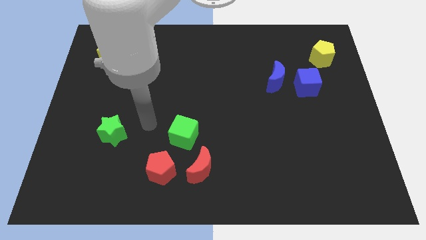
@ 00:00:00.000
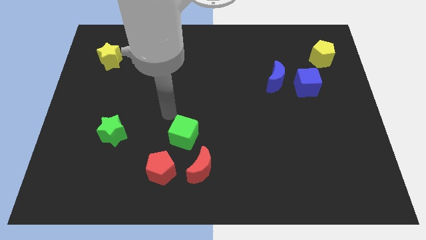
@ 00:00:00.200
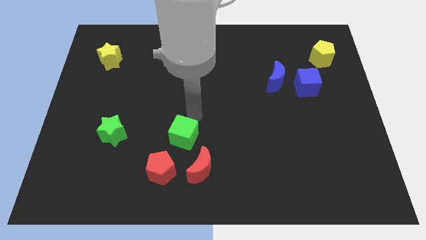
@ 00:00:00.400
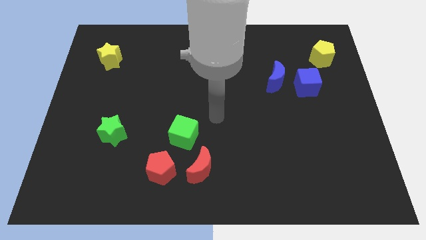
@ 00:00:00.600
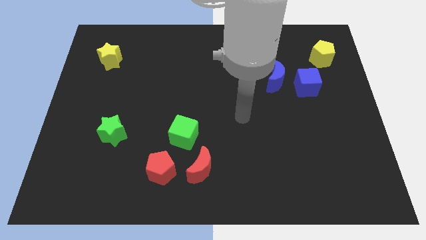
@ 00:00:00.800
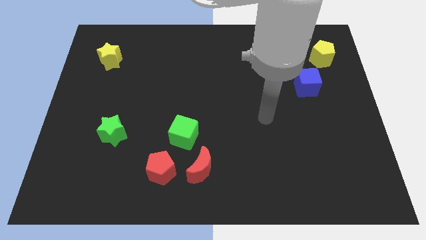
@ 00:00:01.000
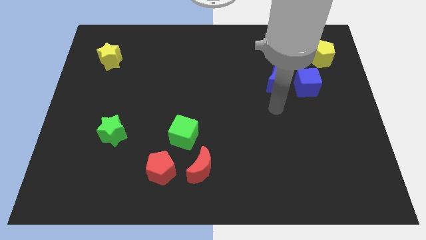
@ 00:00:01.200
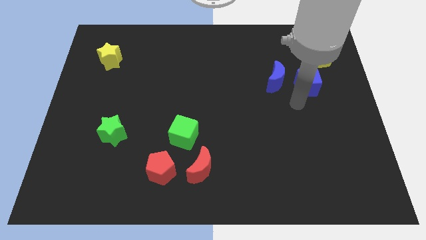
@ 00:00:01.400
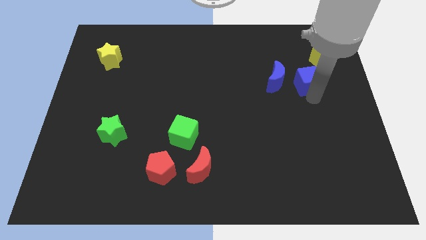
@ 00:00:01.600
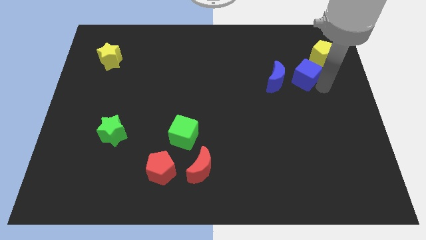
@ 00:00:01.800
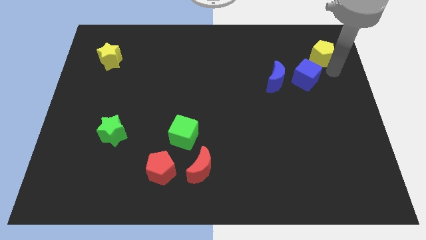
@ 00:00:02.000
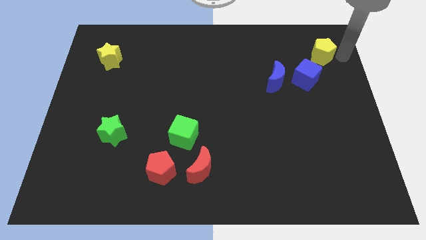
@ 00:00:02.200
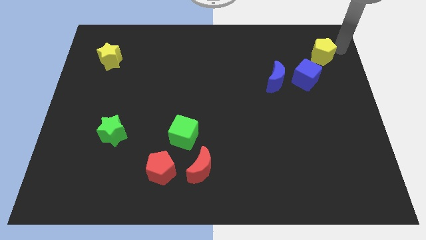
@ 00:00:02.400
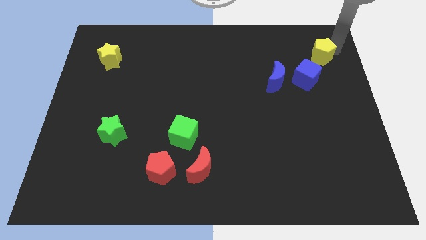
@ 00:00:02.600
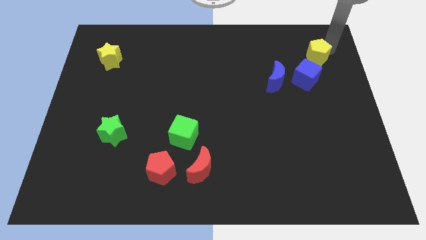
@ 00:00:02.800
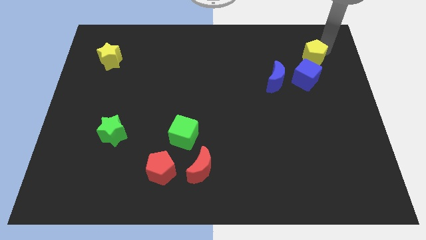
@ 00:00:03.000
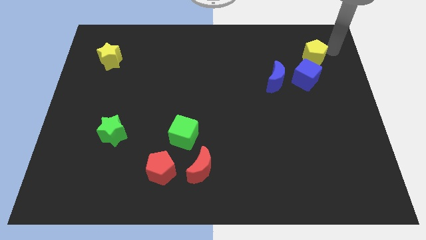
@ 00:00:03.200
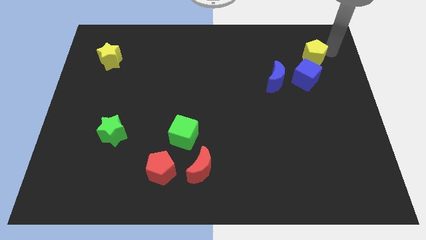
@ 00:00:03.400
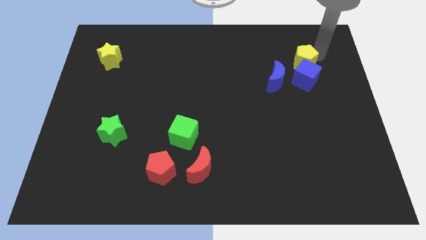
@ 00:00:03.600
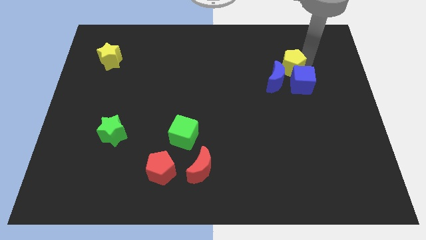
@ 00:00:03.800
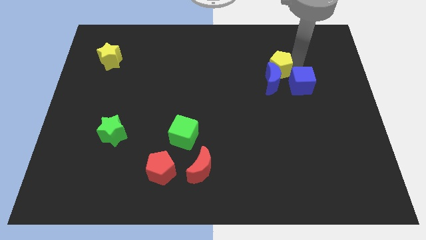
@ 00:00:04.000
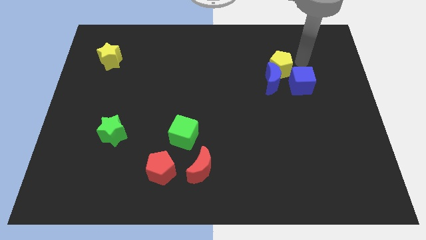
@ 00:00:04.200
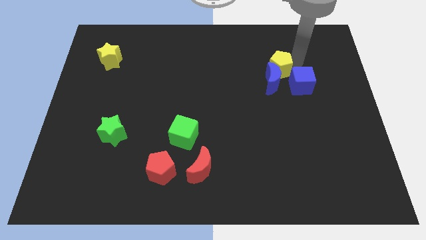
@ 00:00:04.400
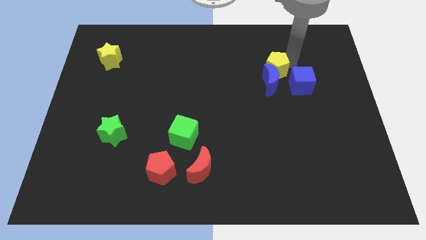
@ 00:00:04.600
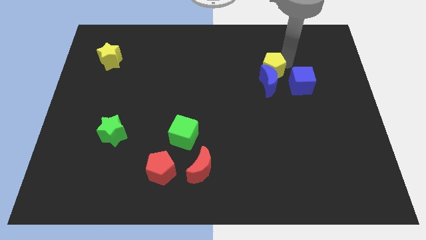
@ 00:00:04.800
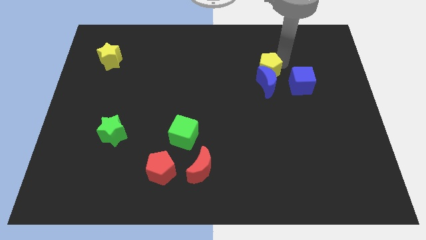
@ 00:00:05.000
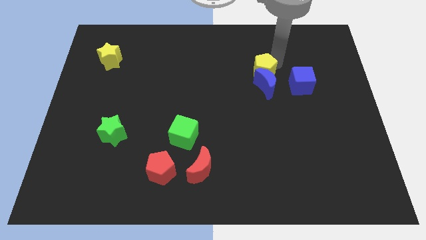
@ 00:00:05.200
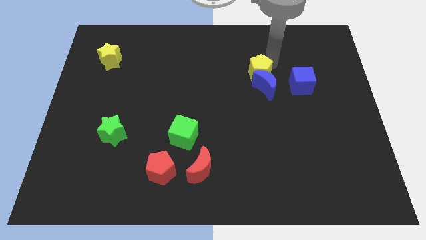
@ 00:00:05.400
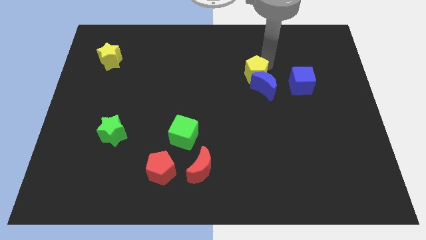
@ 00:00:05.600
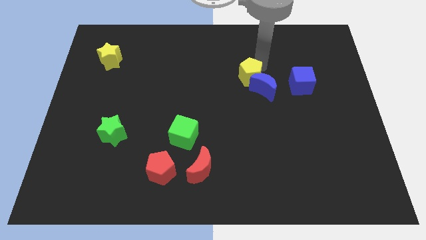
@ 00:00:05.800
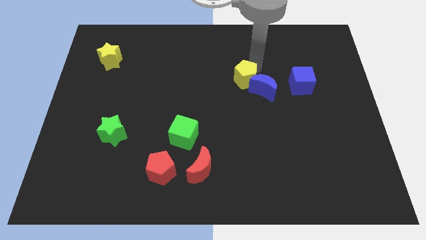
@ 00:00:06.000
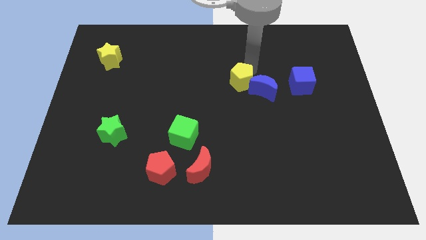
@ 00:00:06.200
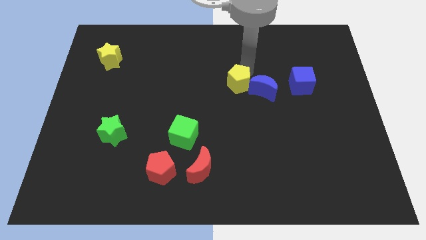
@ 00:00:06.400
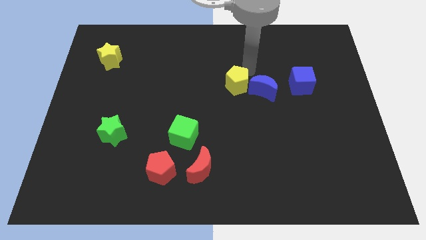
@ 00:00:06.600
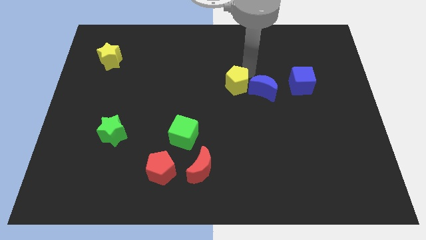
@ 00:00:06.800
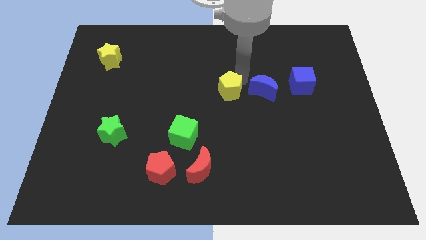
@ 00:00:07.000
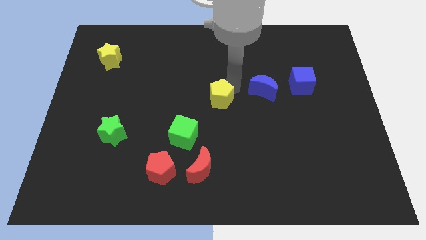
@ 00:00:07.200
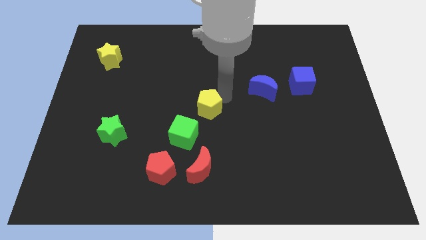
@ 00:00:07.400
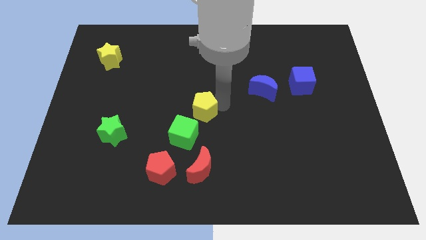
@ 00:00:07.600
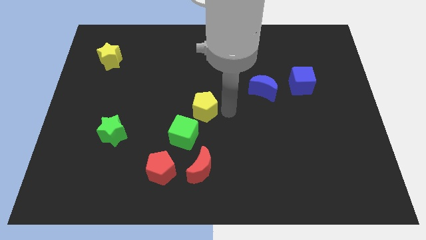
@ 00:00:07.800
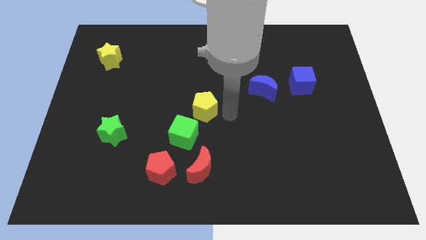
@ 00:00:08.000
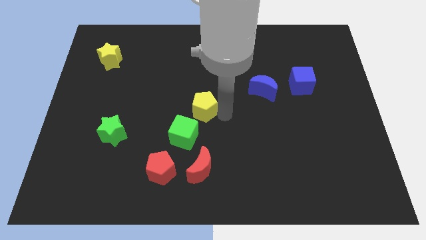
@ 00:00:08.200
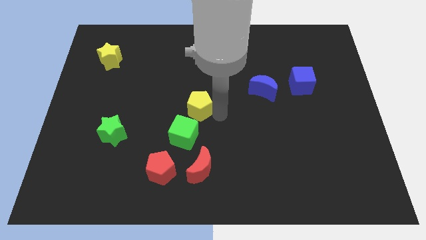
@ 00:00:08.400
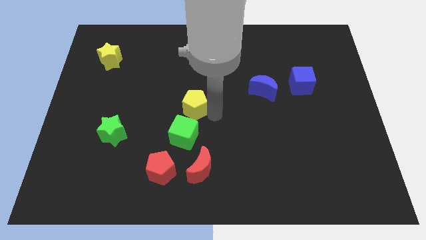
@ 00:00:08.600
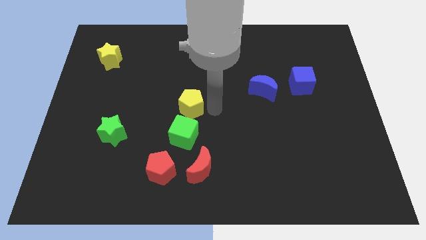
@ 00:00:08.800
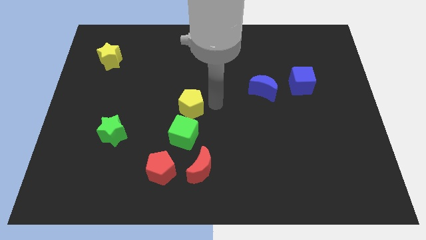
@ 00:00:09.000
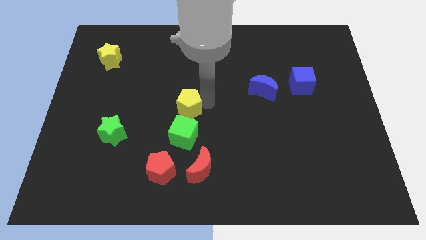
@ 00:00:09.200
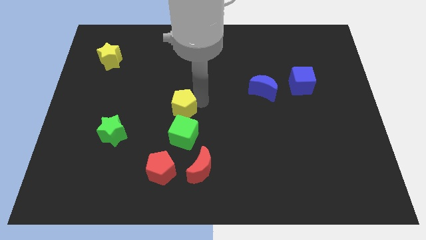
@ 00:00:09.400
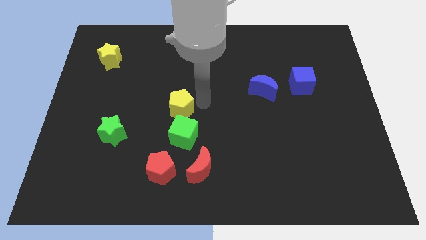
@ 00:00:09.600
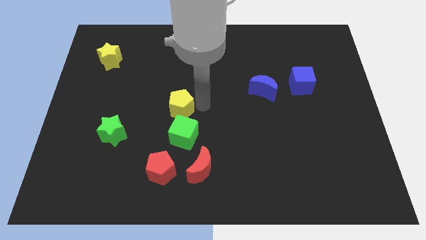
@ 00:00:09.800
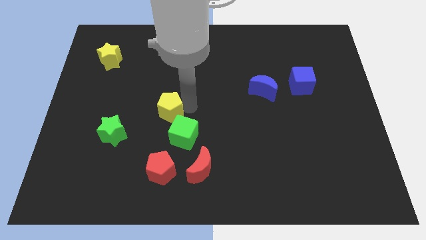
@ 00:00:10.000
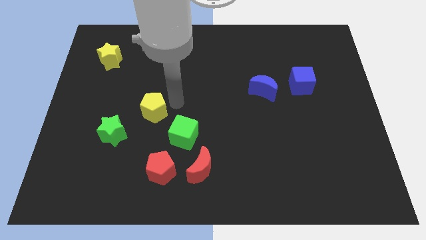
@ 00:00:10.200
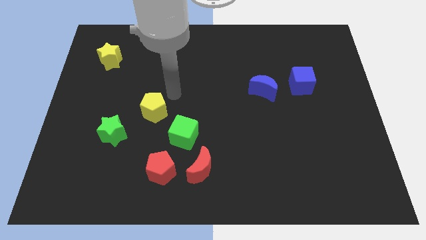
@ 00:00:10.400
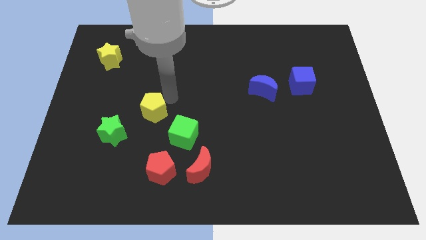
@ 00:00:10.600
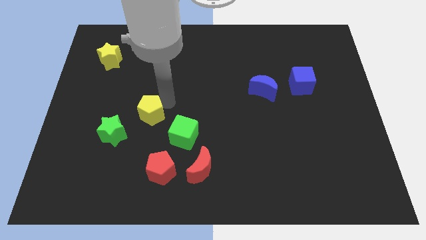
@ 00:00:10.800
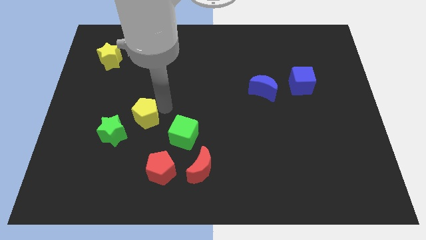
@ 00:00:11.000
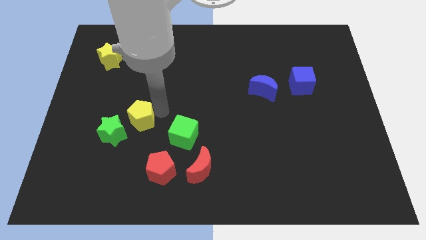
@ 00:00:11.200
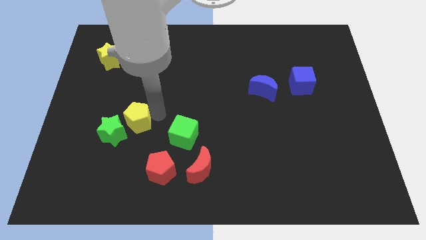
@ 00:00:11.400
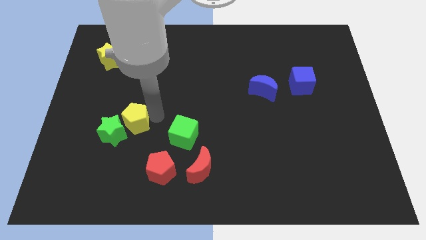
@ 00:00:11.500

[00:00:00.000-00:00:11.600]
put the yellow pentagon towards the green star

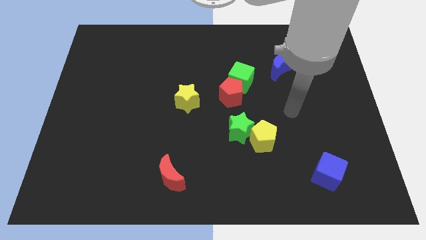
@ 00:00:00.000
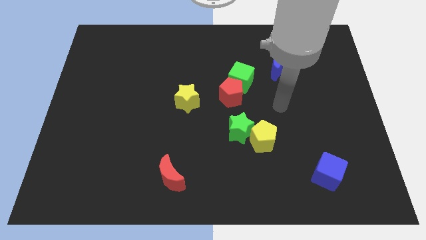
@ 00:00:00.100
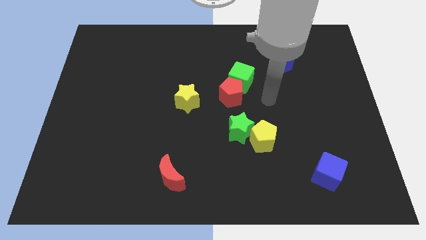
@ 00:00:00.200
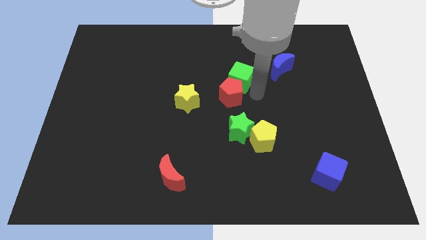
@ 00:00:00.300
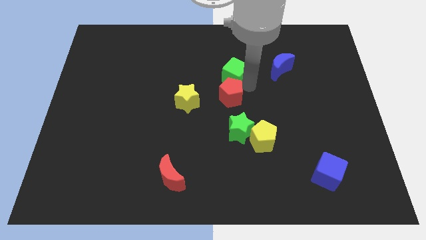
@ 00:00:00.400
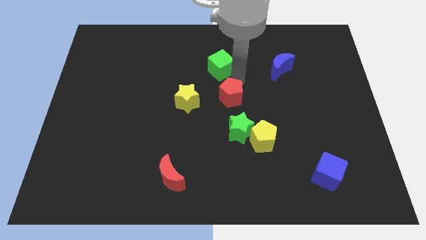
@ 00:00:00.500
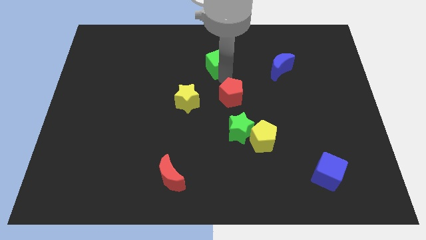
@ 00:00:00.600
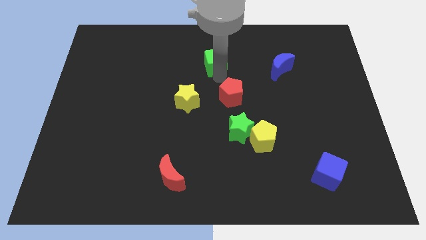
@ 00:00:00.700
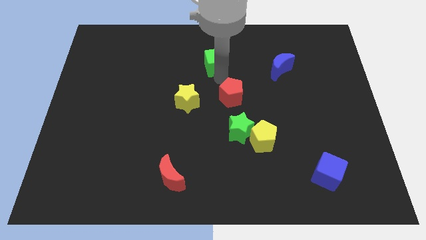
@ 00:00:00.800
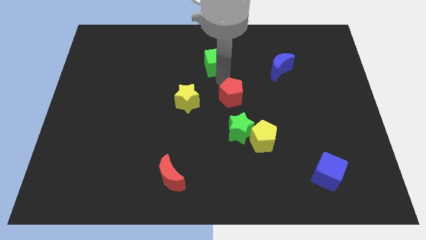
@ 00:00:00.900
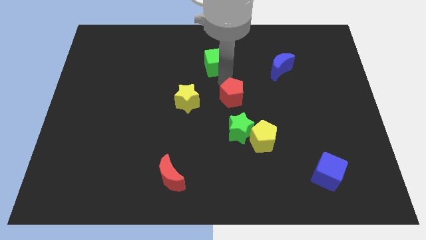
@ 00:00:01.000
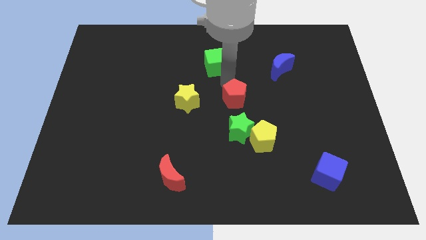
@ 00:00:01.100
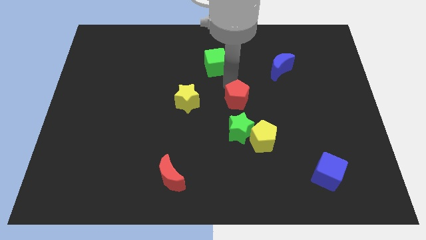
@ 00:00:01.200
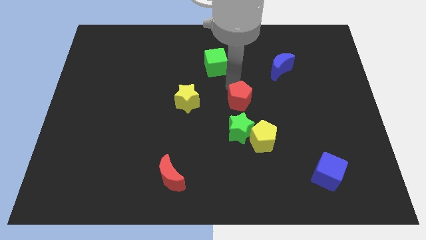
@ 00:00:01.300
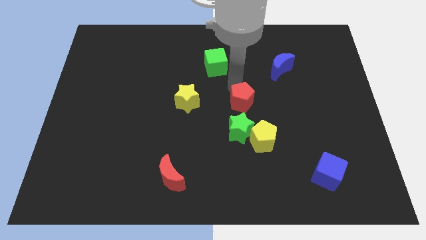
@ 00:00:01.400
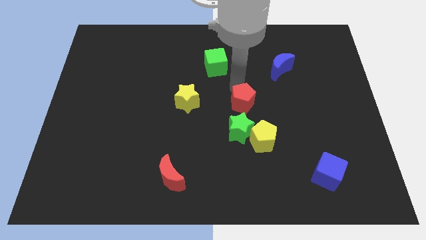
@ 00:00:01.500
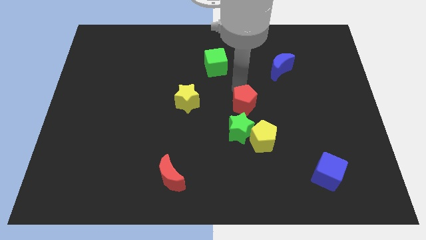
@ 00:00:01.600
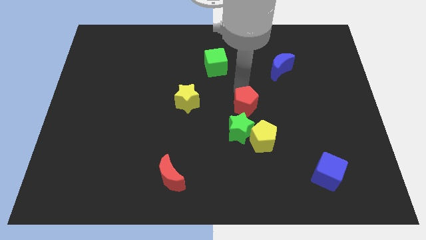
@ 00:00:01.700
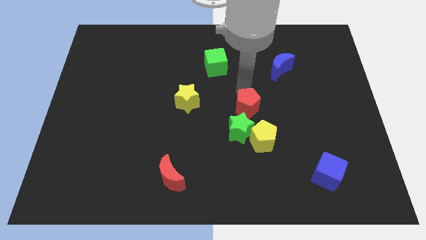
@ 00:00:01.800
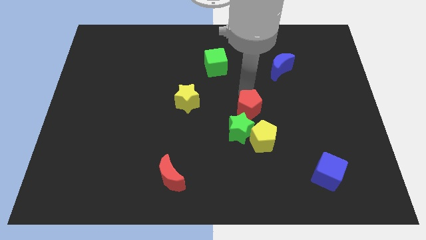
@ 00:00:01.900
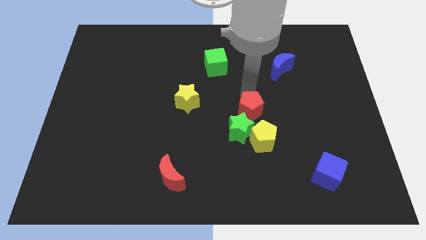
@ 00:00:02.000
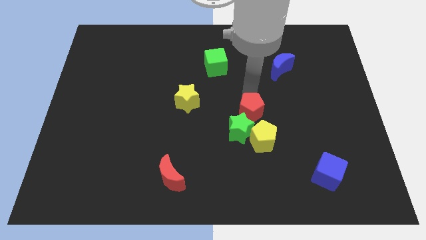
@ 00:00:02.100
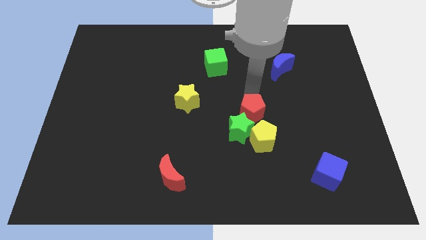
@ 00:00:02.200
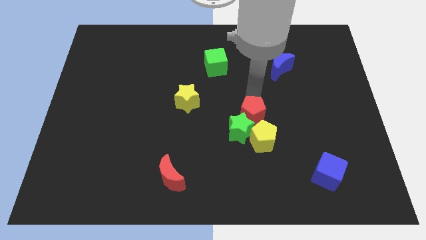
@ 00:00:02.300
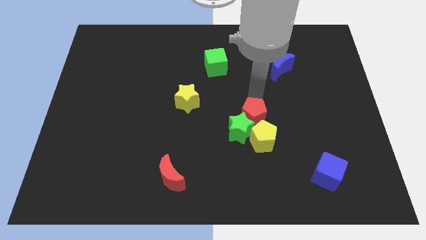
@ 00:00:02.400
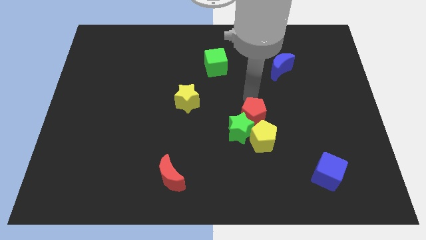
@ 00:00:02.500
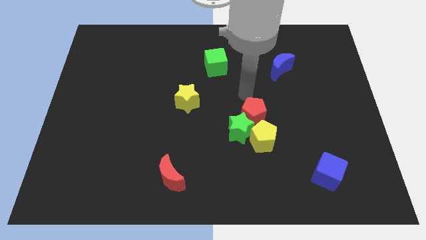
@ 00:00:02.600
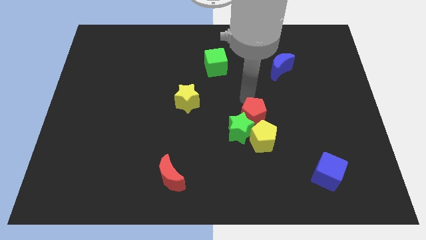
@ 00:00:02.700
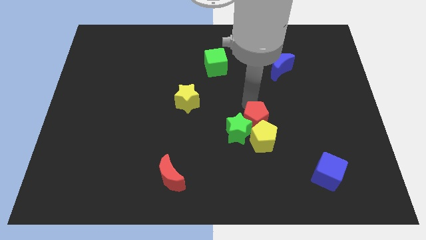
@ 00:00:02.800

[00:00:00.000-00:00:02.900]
push the red pentagon next to the yellow pentagon
